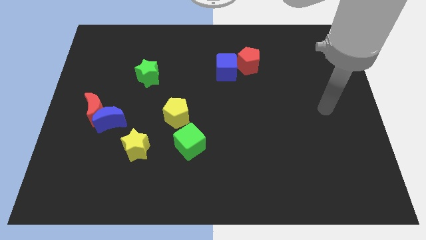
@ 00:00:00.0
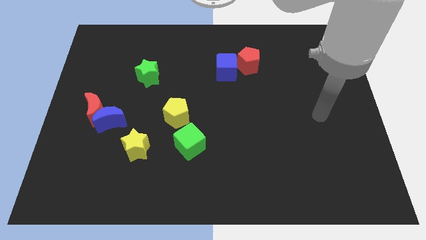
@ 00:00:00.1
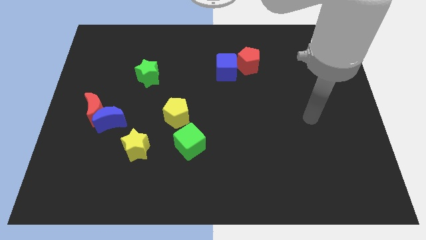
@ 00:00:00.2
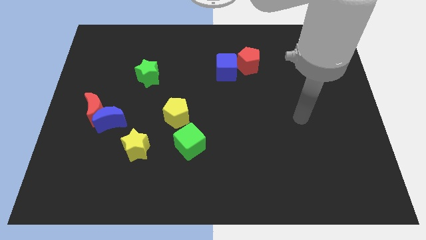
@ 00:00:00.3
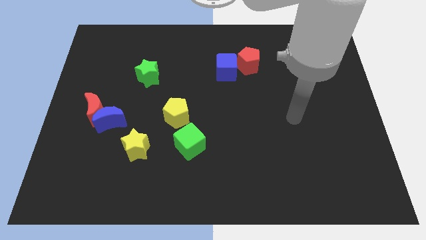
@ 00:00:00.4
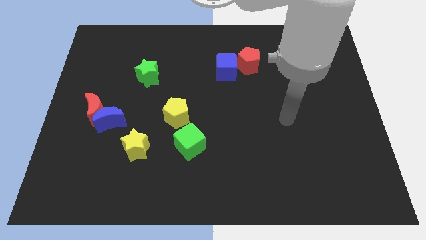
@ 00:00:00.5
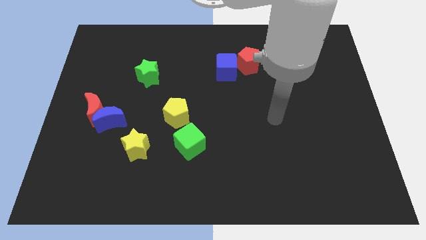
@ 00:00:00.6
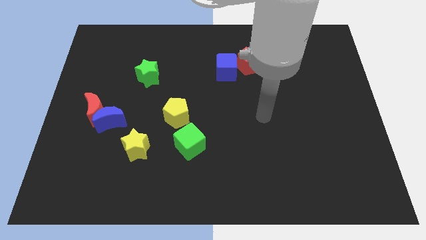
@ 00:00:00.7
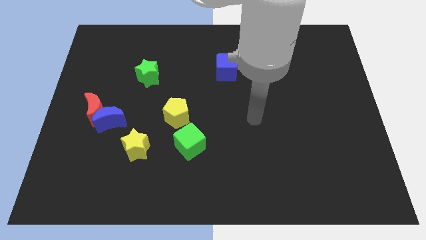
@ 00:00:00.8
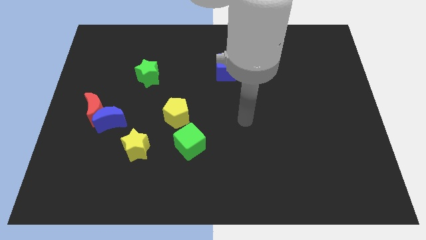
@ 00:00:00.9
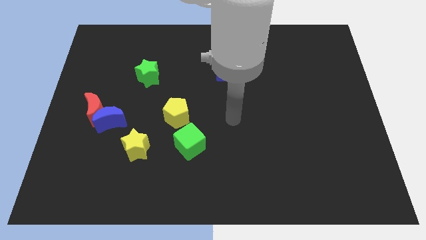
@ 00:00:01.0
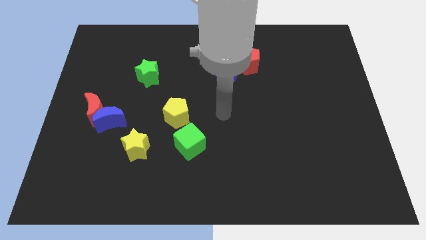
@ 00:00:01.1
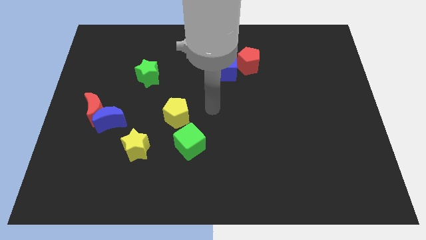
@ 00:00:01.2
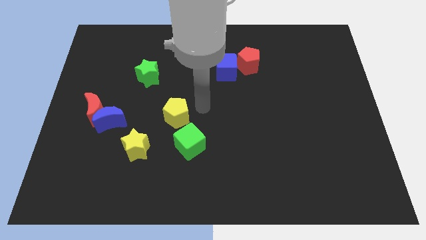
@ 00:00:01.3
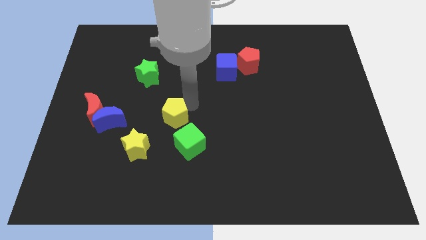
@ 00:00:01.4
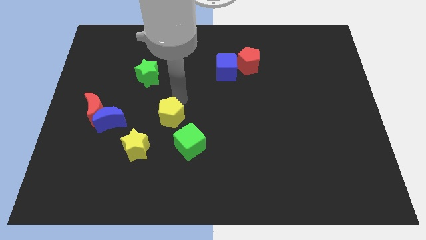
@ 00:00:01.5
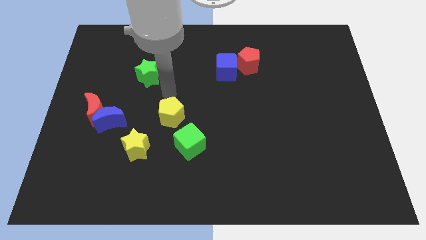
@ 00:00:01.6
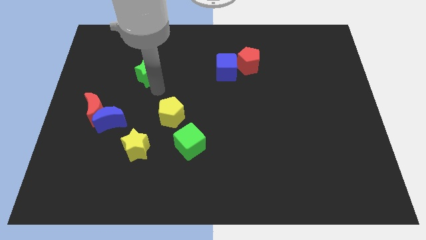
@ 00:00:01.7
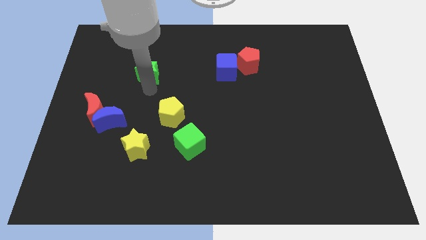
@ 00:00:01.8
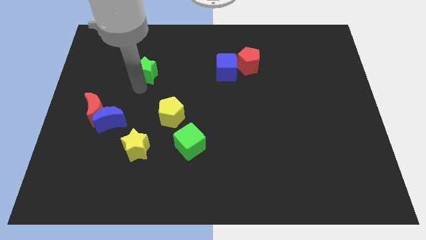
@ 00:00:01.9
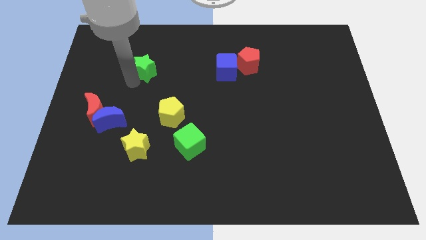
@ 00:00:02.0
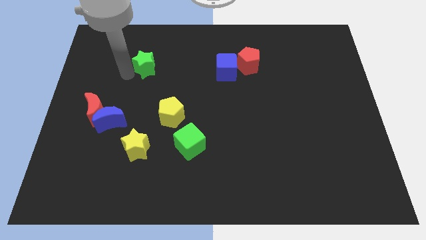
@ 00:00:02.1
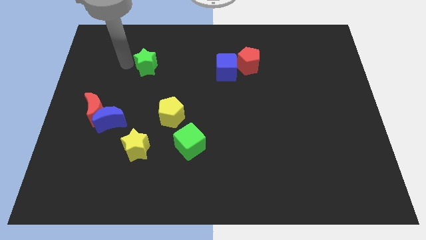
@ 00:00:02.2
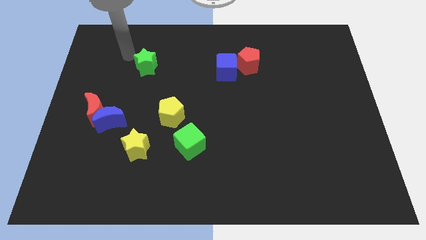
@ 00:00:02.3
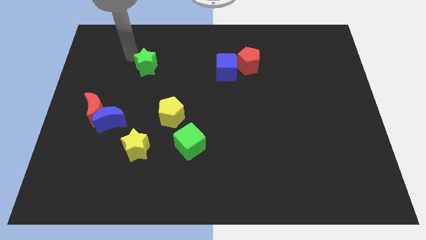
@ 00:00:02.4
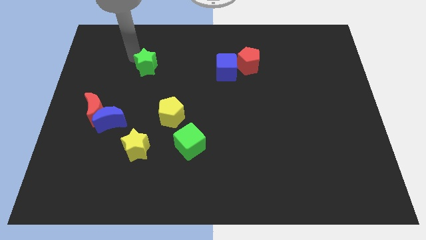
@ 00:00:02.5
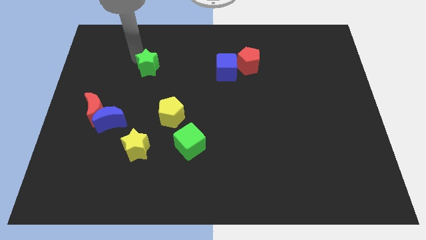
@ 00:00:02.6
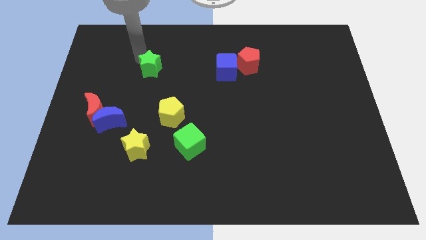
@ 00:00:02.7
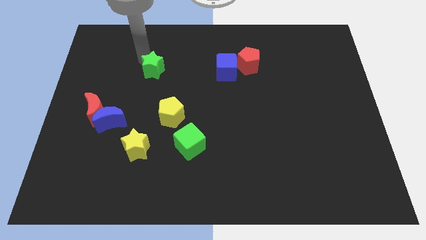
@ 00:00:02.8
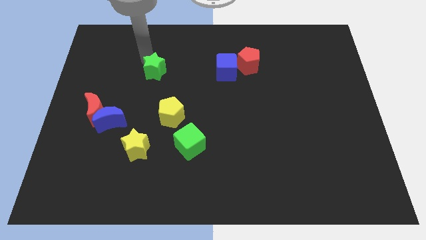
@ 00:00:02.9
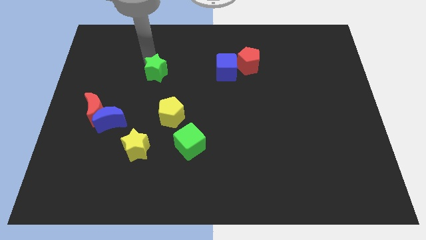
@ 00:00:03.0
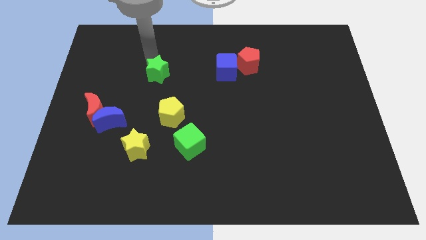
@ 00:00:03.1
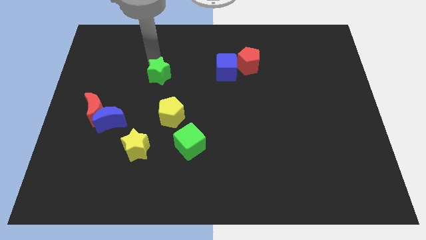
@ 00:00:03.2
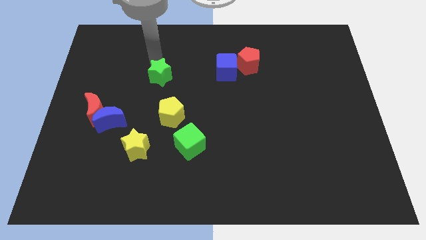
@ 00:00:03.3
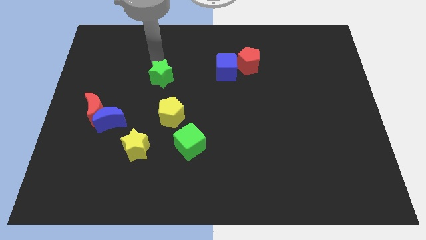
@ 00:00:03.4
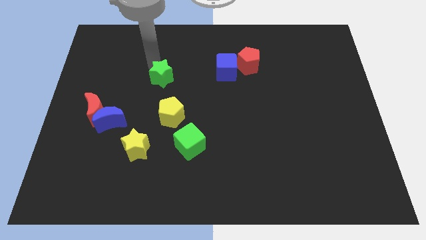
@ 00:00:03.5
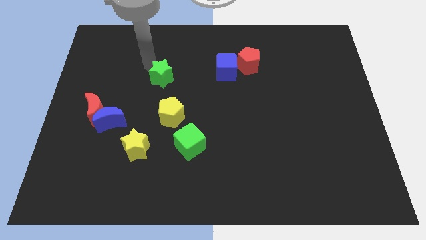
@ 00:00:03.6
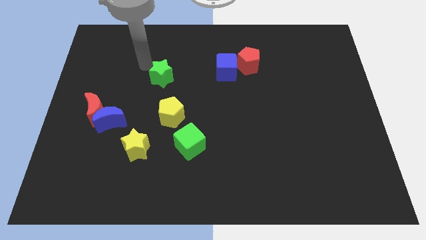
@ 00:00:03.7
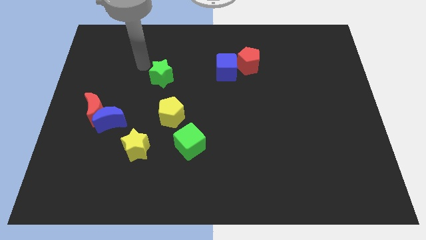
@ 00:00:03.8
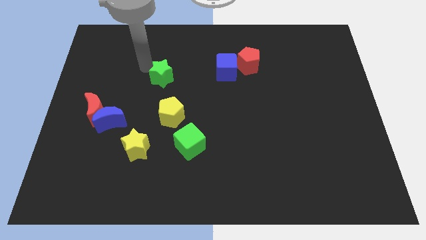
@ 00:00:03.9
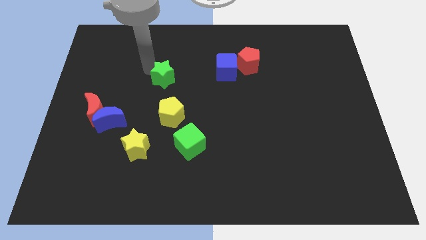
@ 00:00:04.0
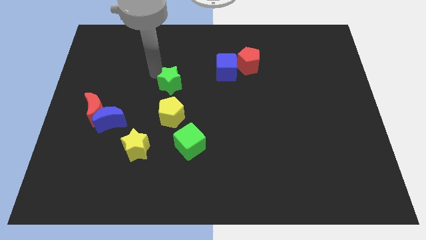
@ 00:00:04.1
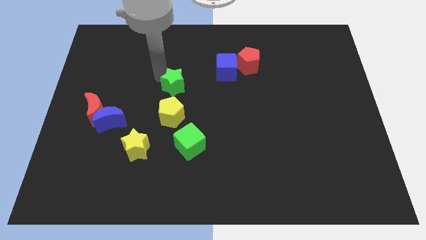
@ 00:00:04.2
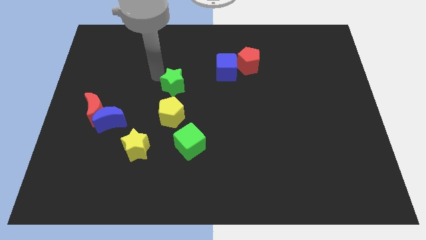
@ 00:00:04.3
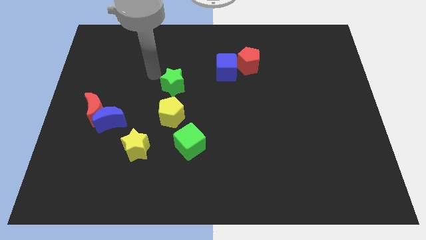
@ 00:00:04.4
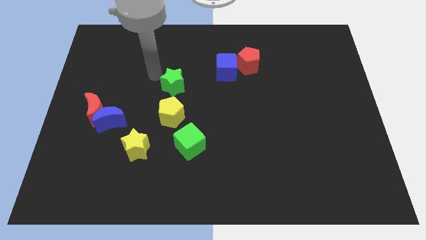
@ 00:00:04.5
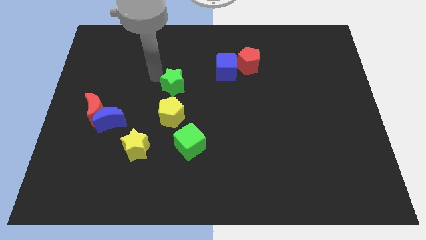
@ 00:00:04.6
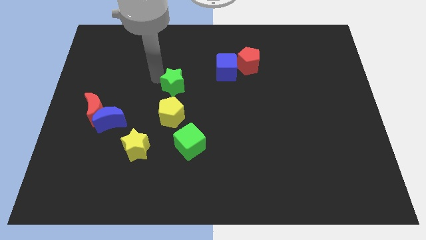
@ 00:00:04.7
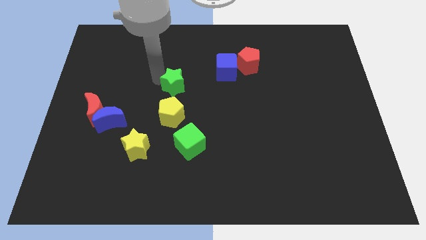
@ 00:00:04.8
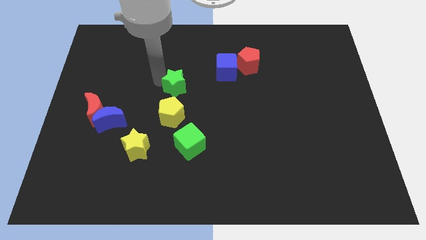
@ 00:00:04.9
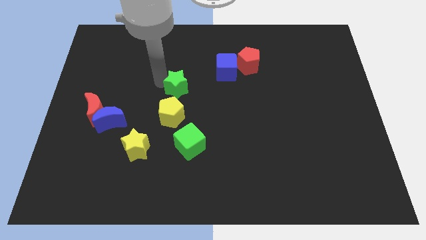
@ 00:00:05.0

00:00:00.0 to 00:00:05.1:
push the green star down and then right a little bit

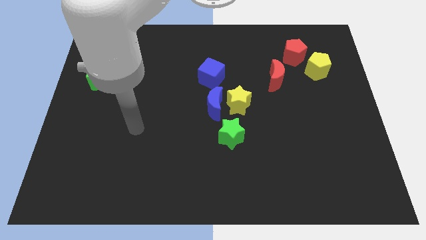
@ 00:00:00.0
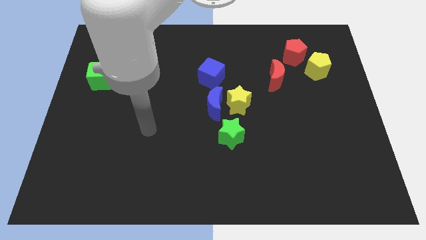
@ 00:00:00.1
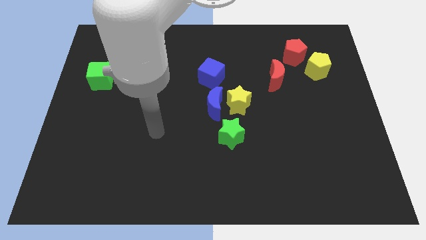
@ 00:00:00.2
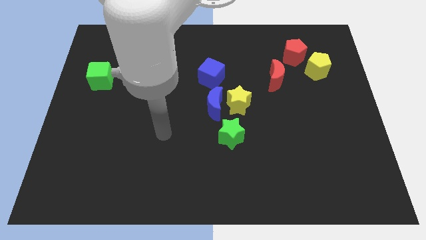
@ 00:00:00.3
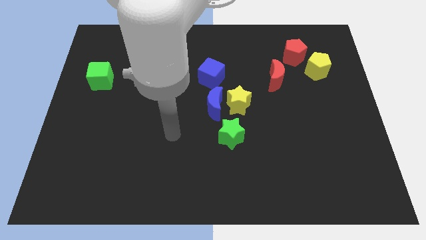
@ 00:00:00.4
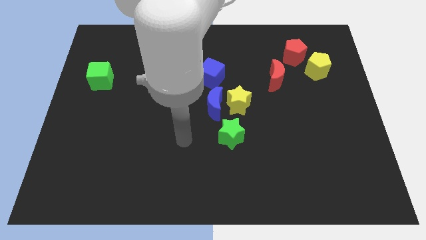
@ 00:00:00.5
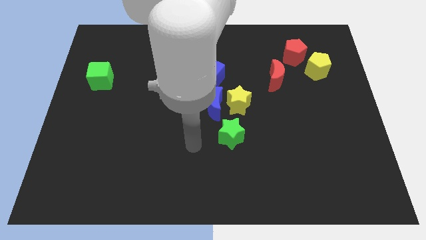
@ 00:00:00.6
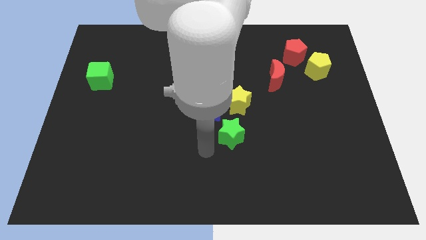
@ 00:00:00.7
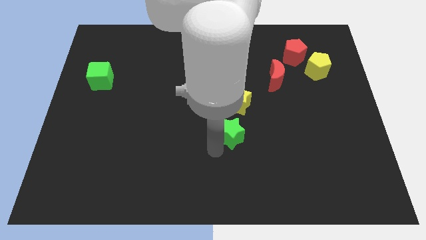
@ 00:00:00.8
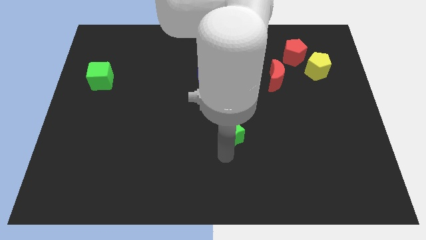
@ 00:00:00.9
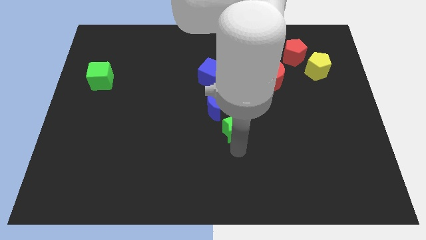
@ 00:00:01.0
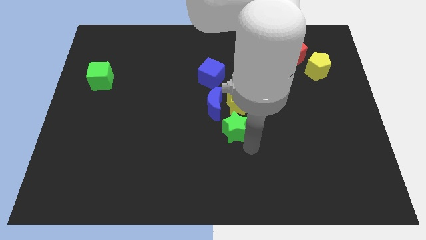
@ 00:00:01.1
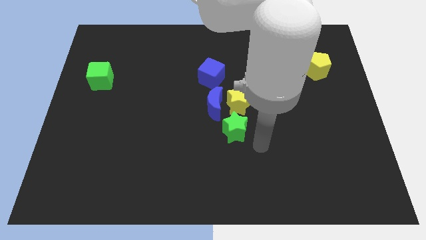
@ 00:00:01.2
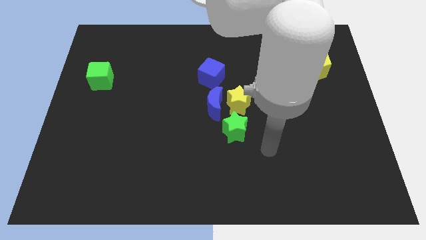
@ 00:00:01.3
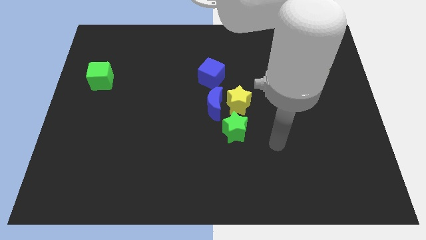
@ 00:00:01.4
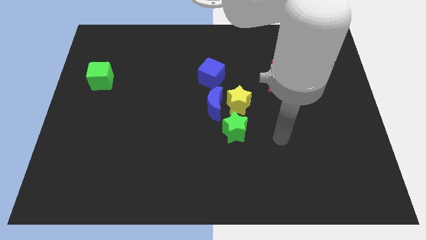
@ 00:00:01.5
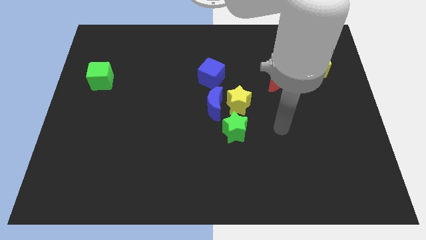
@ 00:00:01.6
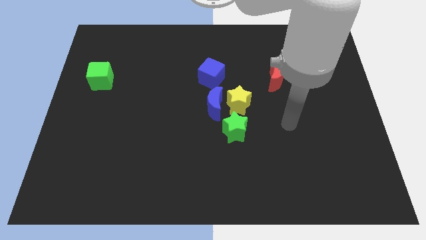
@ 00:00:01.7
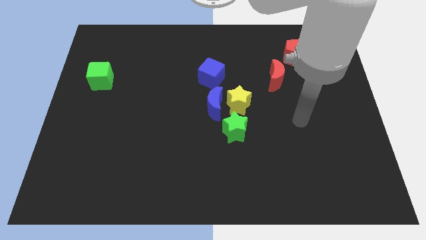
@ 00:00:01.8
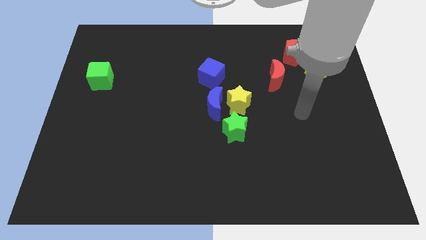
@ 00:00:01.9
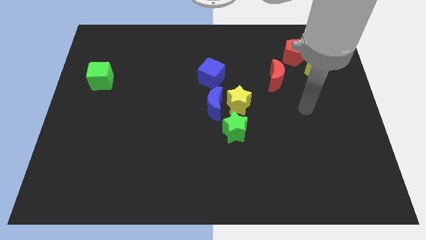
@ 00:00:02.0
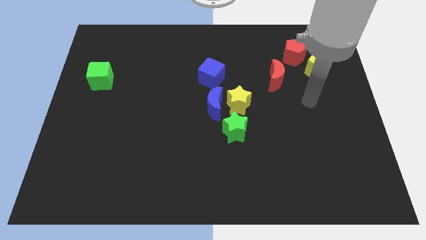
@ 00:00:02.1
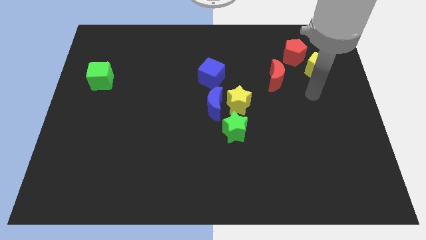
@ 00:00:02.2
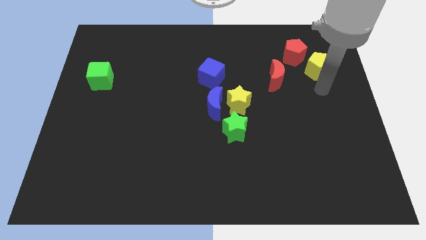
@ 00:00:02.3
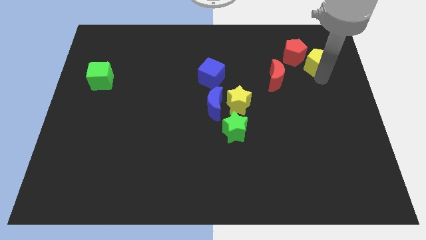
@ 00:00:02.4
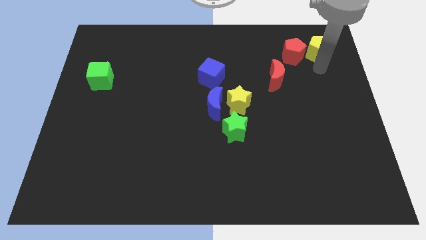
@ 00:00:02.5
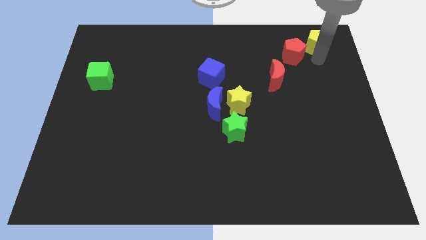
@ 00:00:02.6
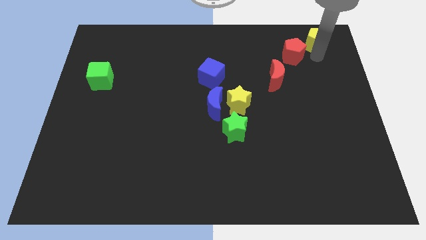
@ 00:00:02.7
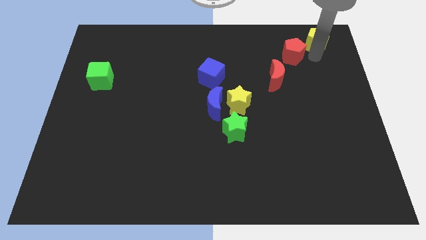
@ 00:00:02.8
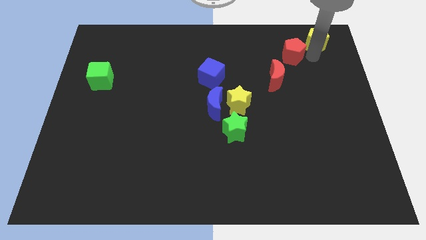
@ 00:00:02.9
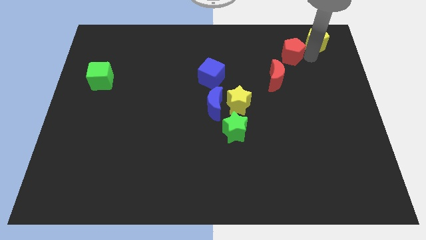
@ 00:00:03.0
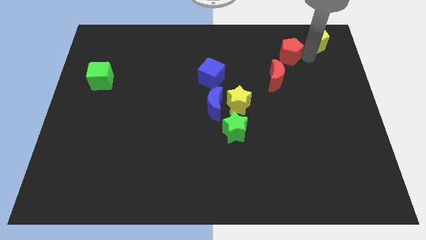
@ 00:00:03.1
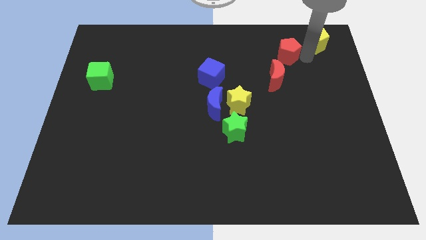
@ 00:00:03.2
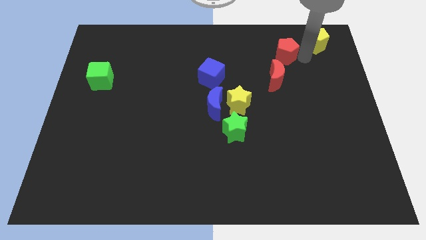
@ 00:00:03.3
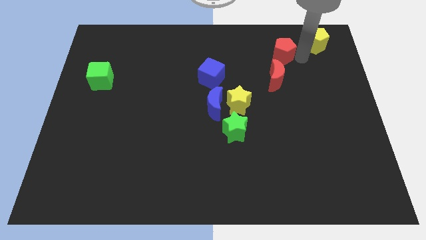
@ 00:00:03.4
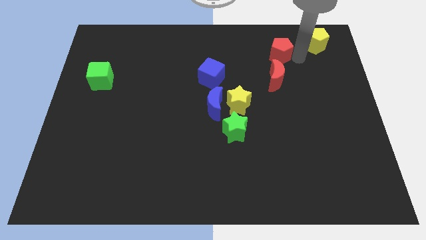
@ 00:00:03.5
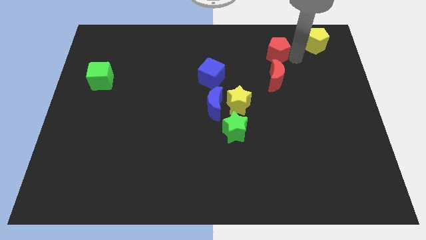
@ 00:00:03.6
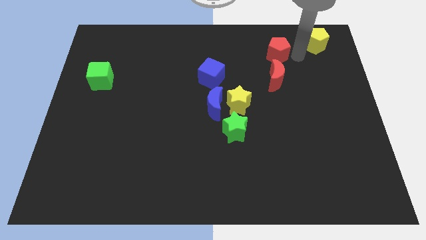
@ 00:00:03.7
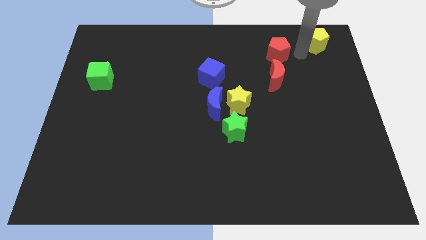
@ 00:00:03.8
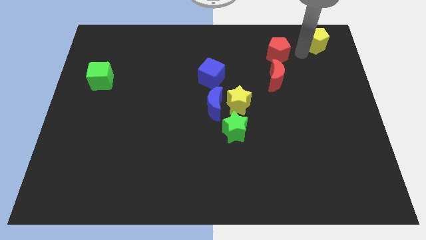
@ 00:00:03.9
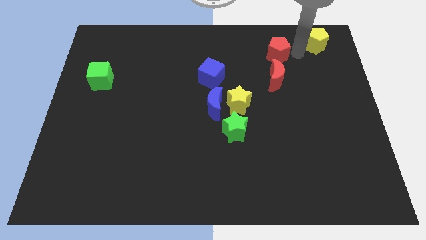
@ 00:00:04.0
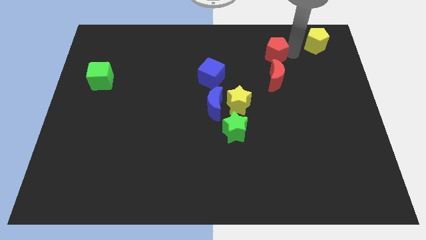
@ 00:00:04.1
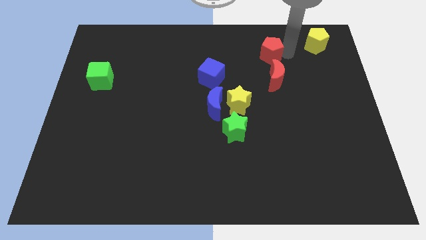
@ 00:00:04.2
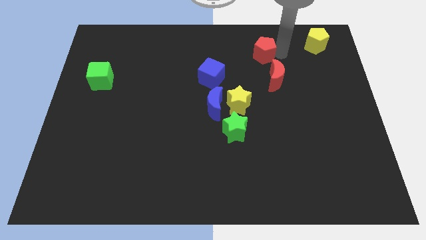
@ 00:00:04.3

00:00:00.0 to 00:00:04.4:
slightly slide the red pentagon to the left
